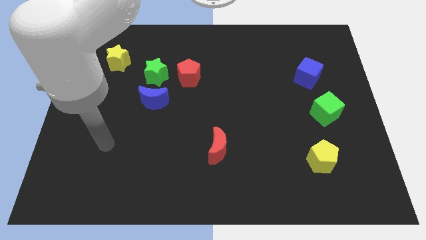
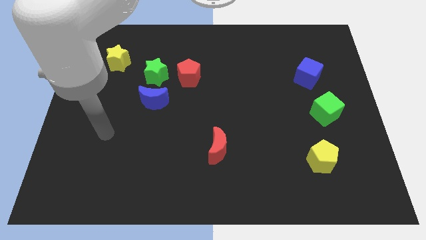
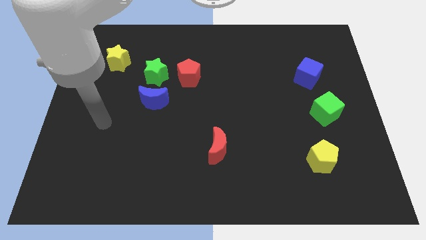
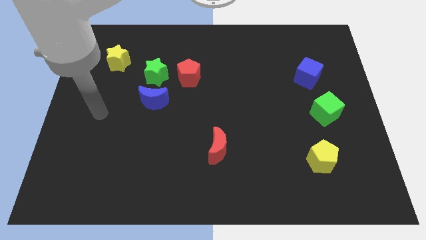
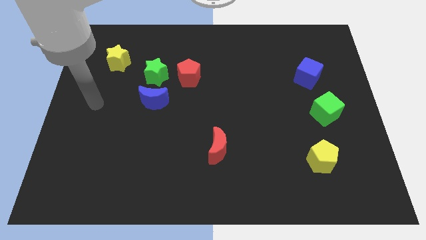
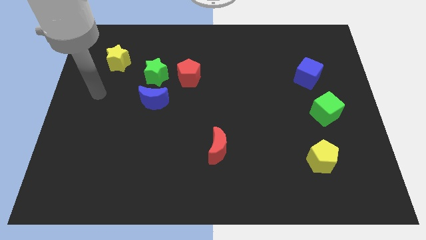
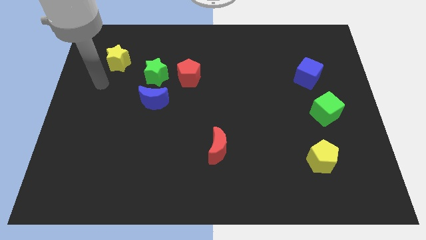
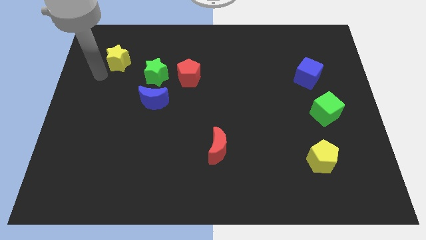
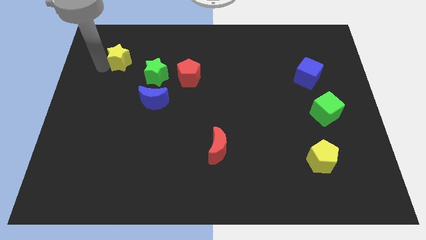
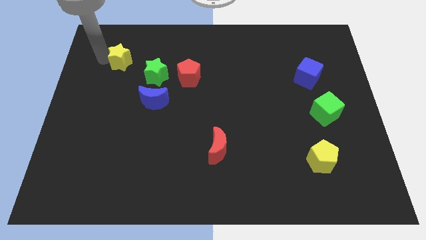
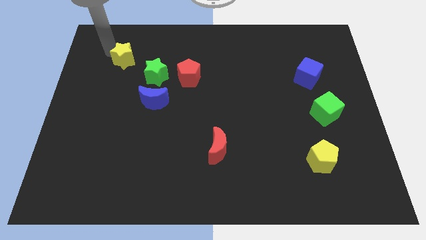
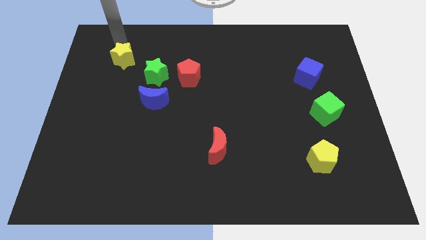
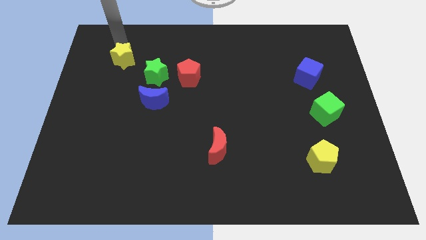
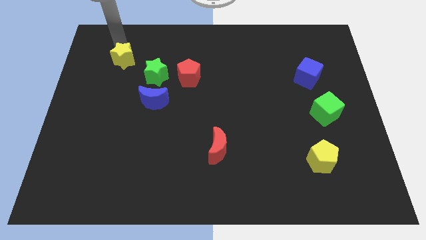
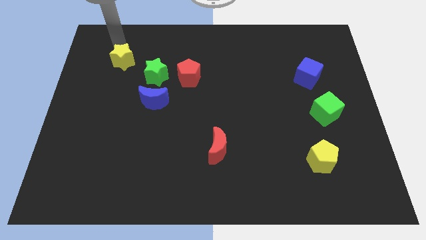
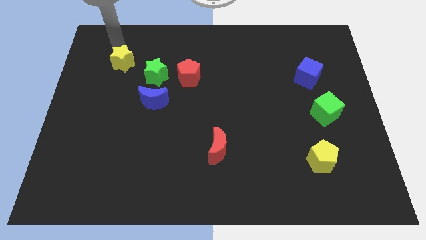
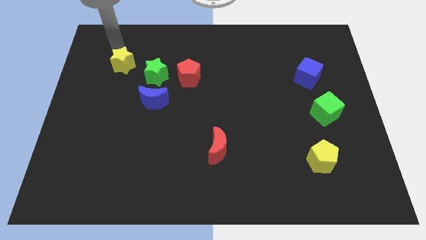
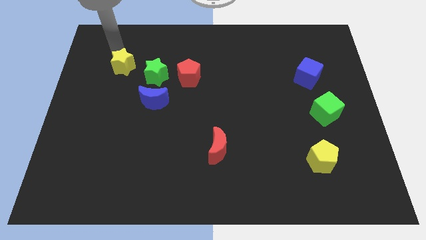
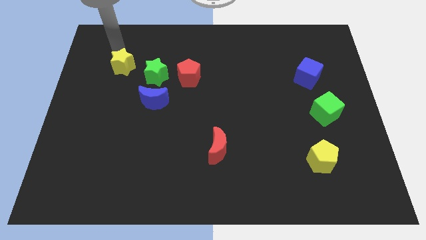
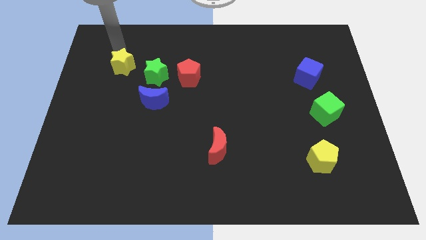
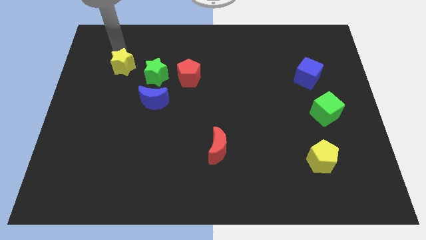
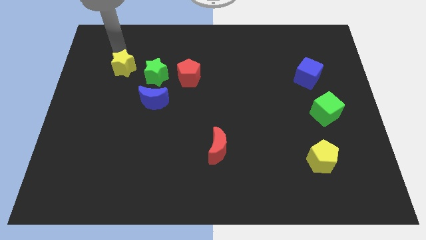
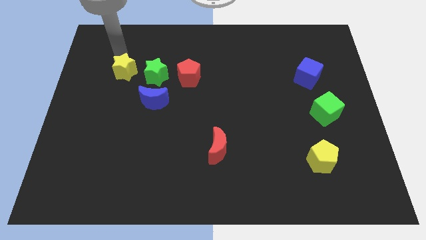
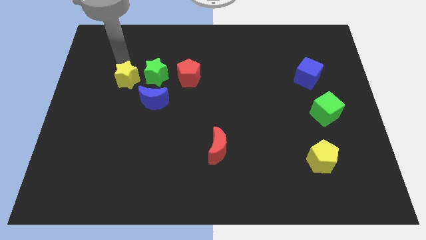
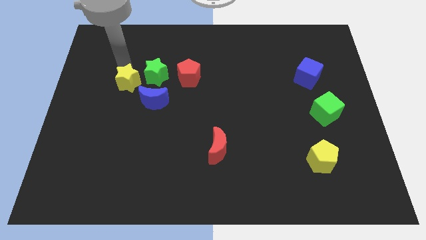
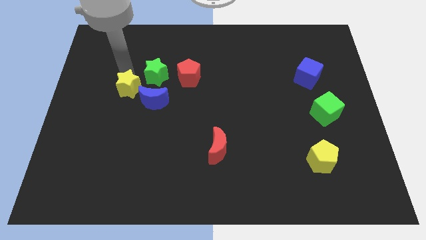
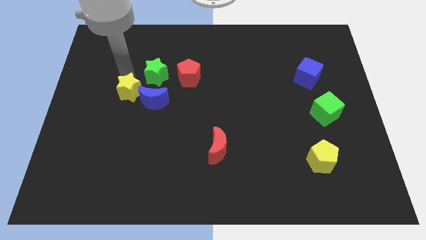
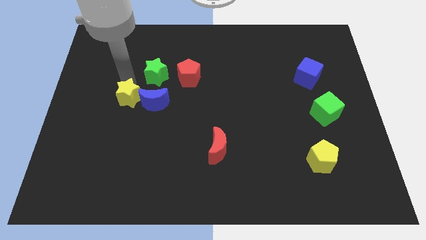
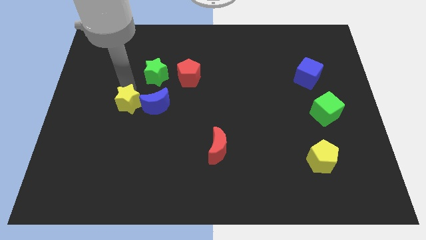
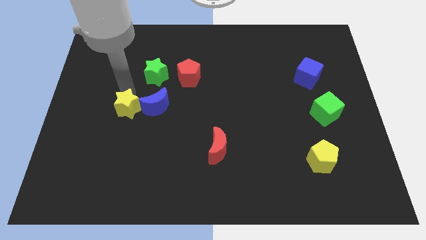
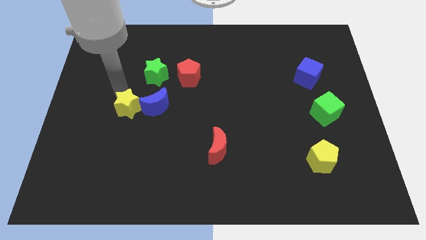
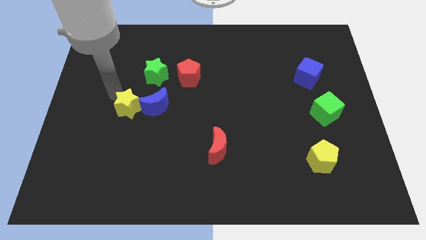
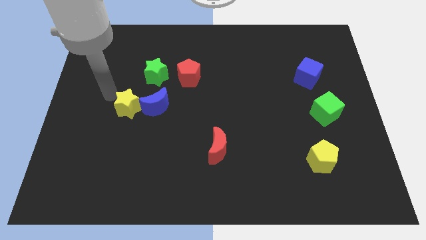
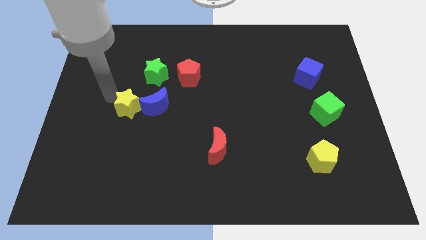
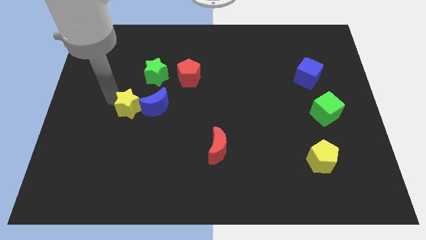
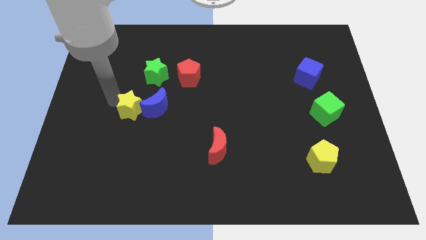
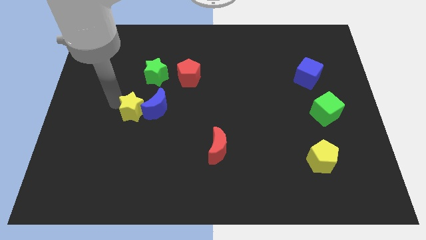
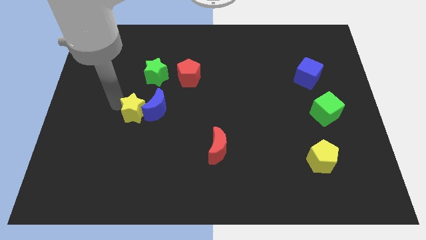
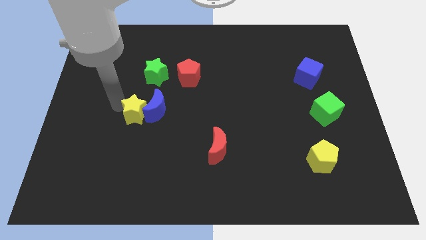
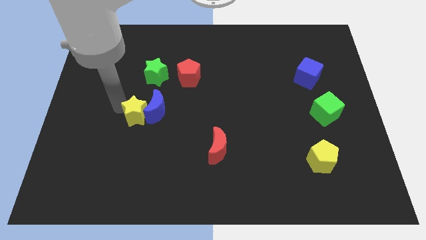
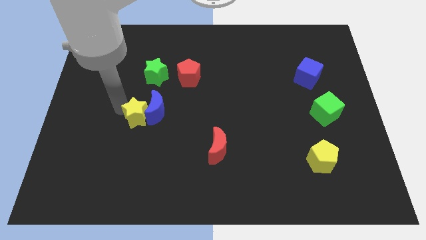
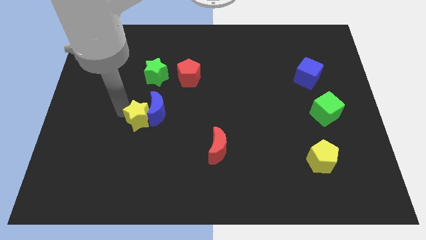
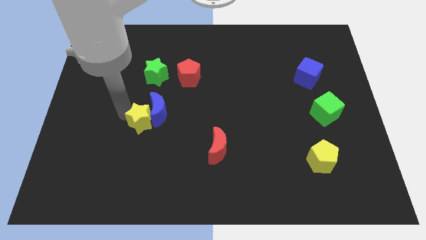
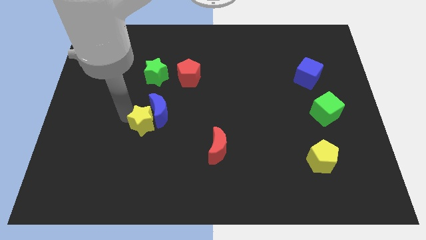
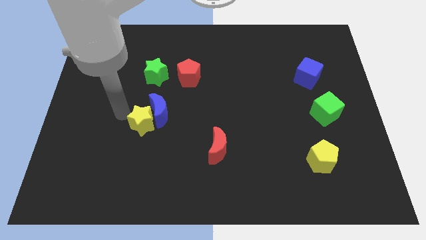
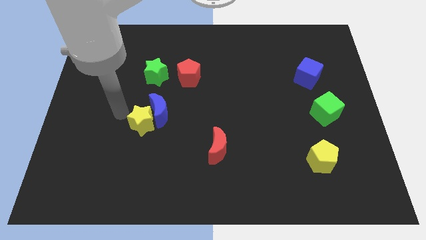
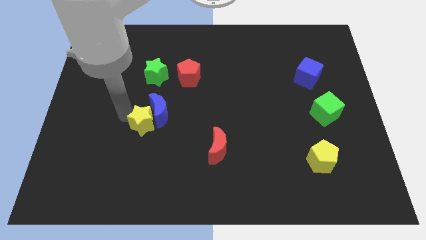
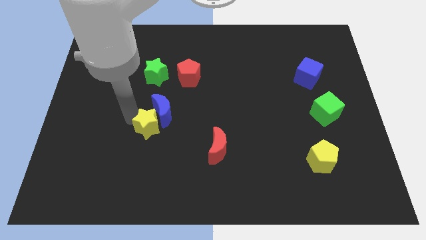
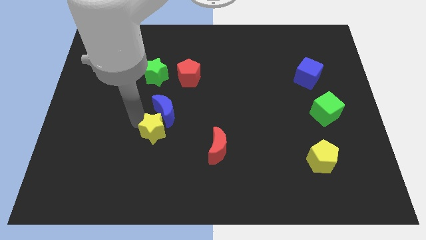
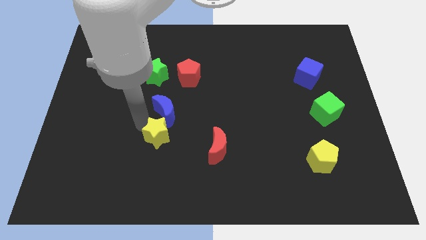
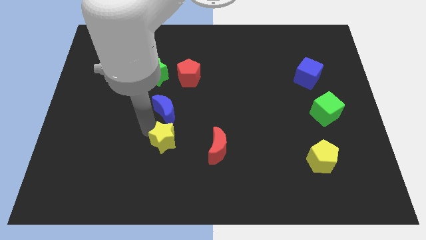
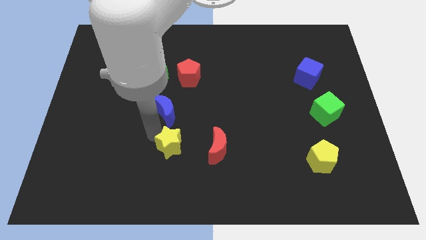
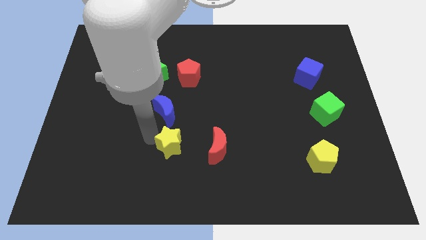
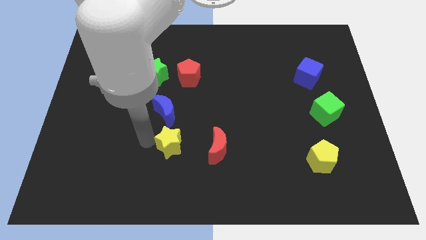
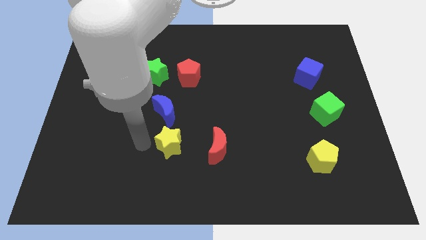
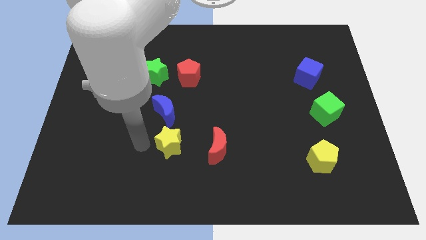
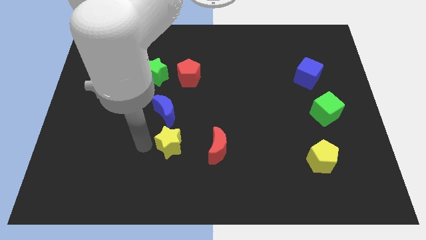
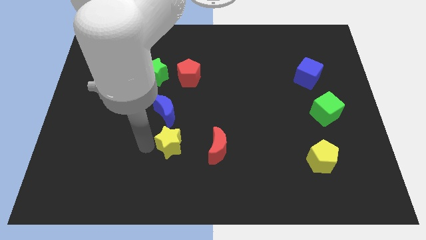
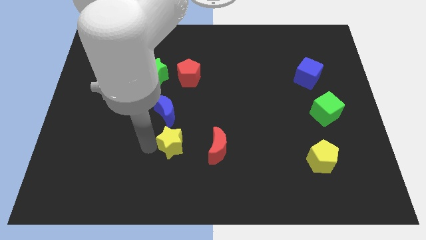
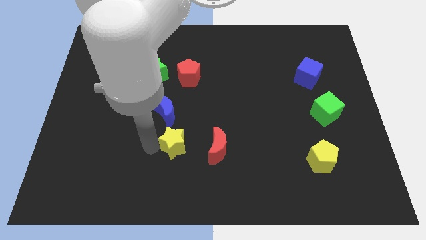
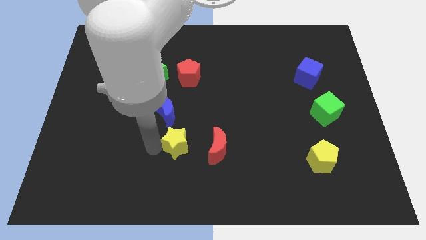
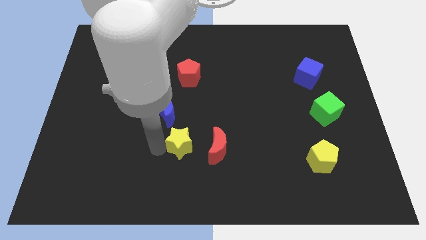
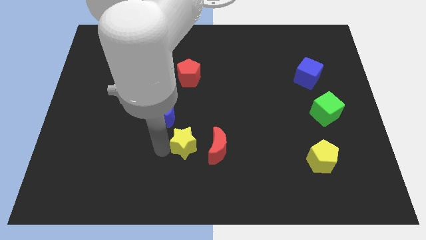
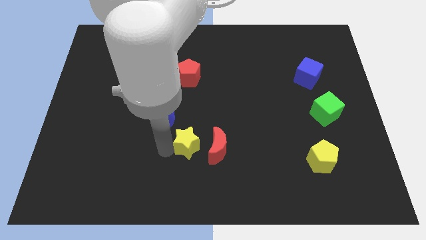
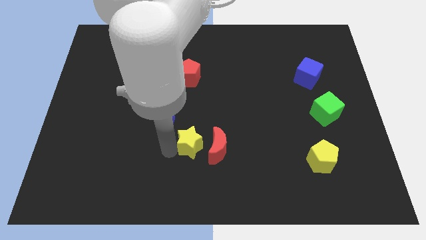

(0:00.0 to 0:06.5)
slide the yellow star close to the red moon
